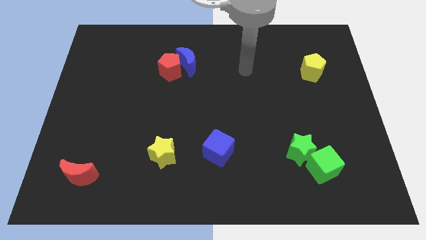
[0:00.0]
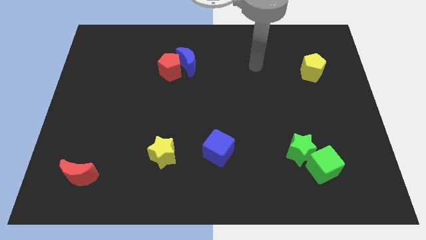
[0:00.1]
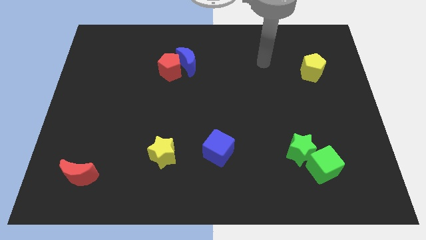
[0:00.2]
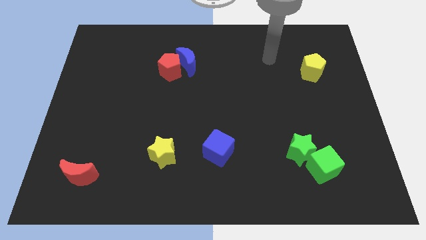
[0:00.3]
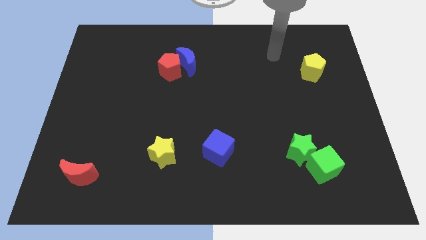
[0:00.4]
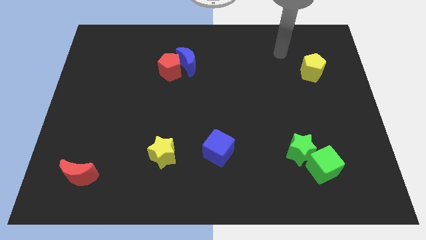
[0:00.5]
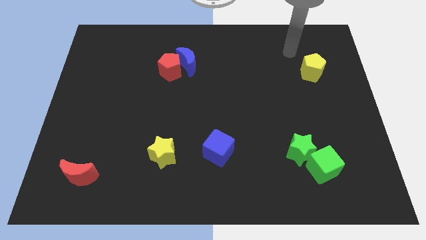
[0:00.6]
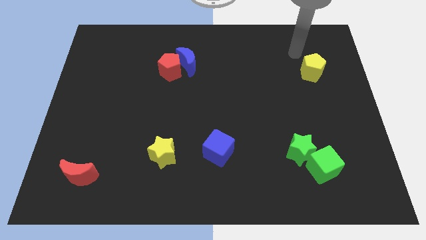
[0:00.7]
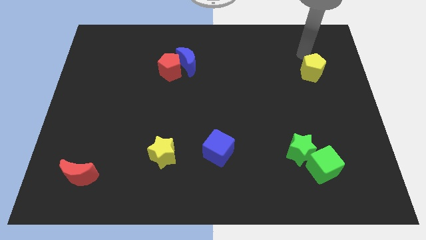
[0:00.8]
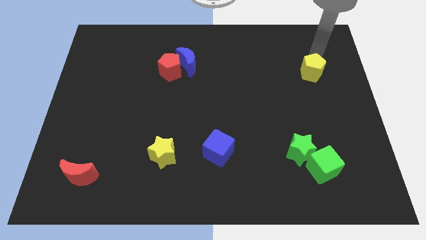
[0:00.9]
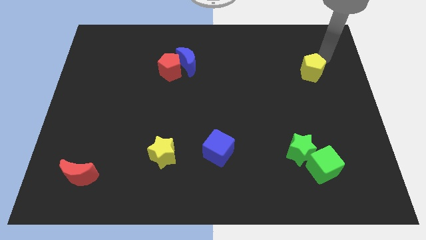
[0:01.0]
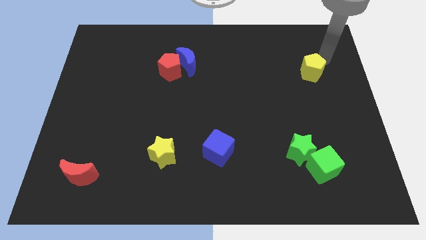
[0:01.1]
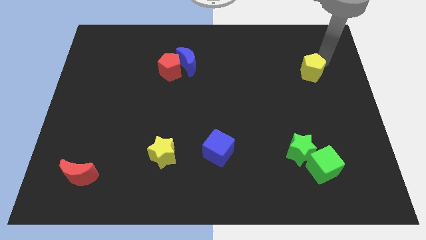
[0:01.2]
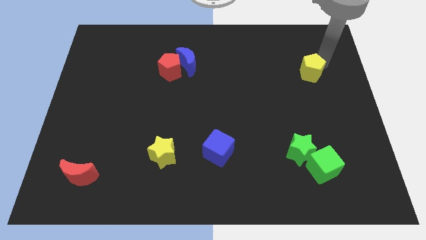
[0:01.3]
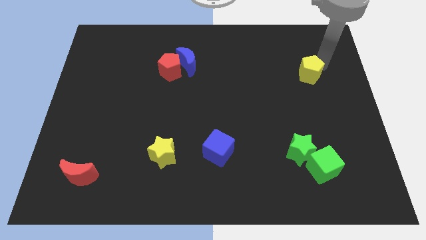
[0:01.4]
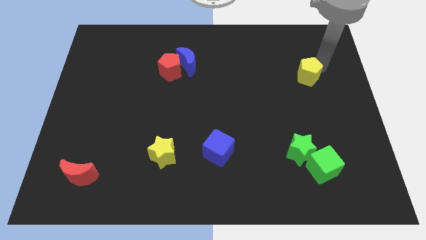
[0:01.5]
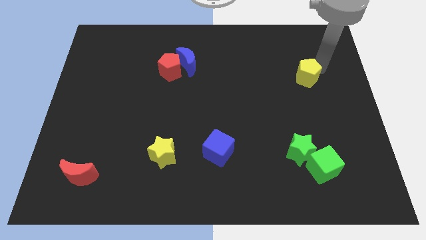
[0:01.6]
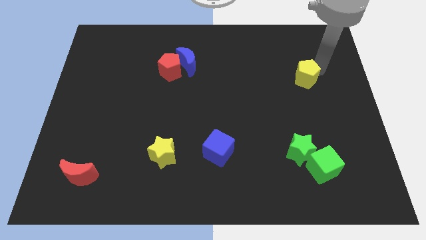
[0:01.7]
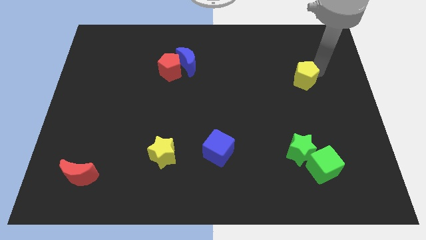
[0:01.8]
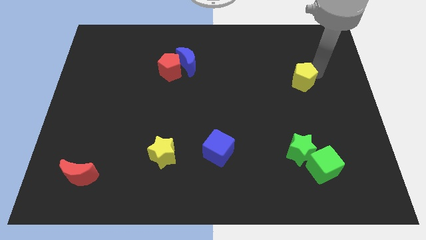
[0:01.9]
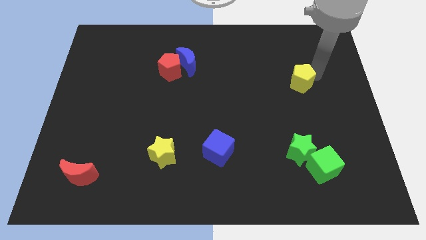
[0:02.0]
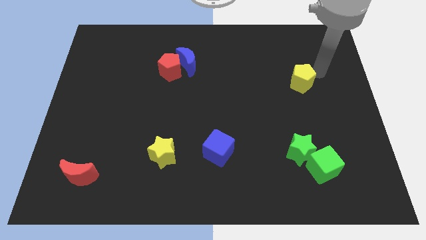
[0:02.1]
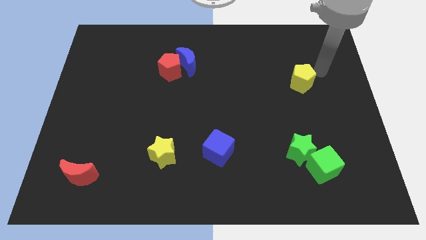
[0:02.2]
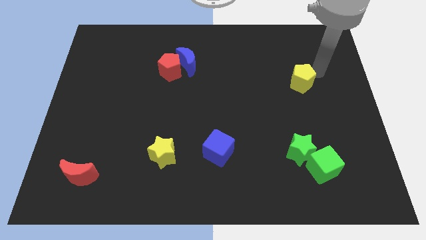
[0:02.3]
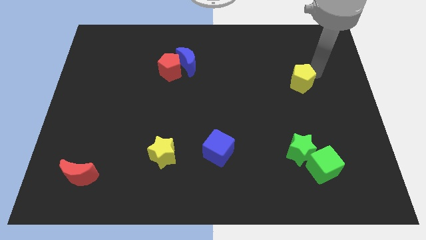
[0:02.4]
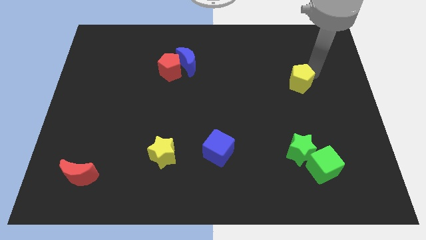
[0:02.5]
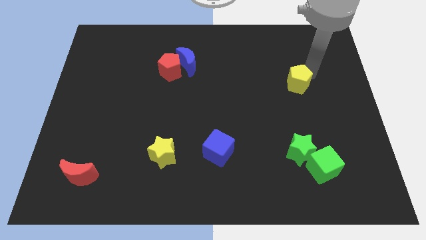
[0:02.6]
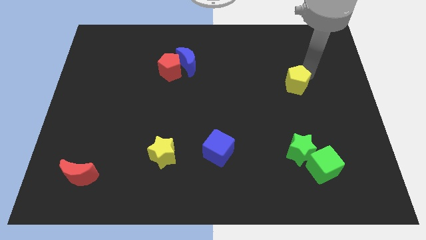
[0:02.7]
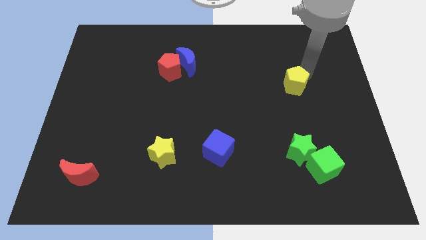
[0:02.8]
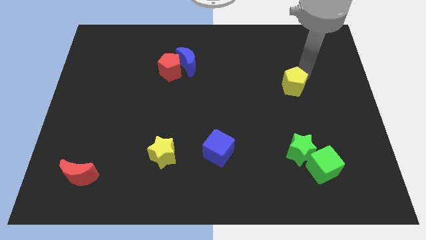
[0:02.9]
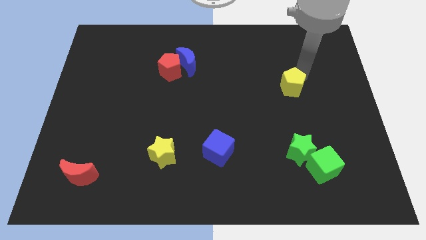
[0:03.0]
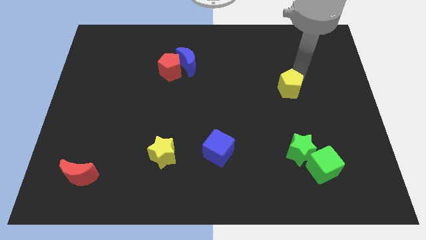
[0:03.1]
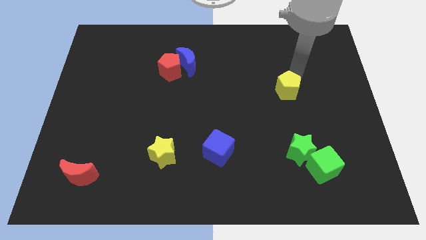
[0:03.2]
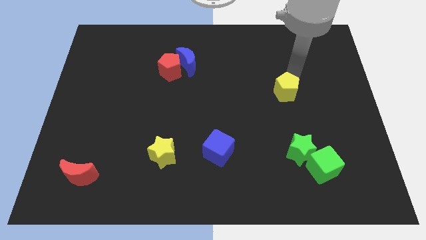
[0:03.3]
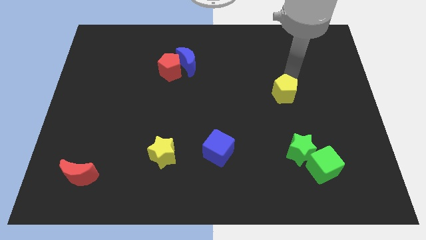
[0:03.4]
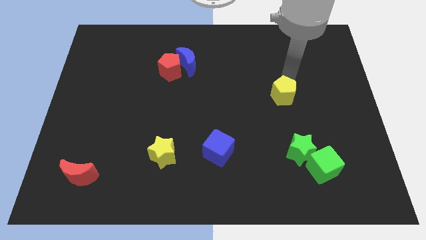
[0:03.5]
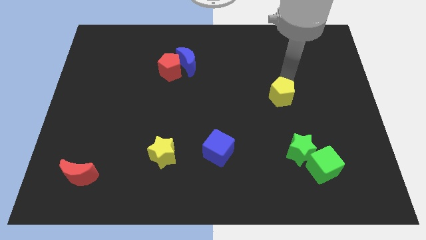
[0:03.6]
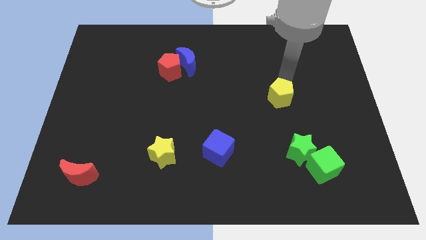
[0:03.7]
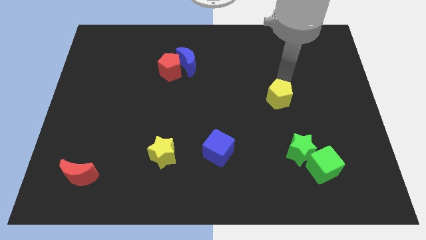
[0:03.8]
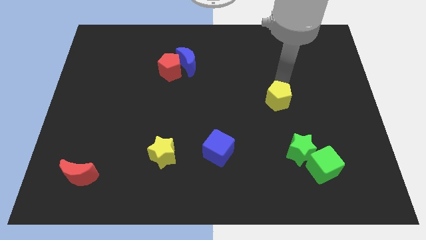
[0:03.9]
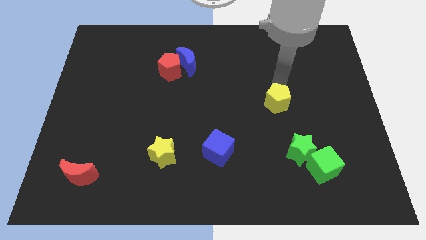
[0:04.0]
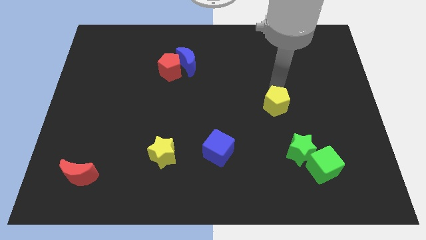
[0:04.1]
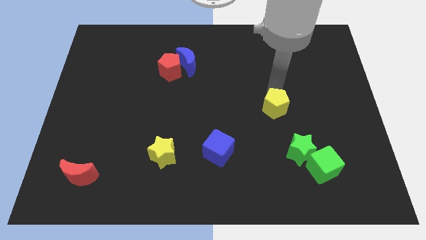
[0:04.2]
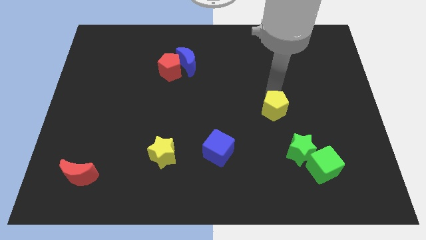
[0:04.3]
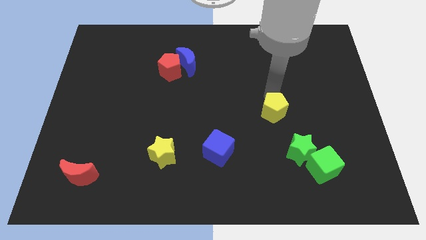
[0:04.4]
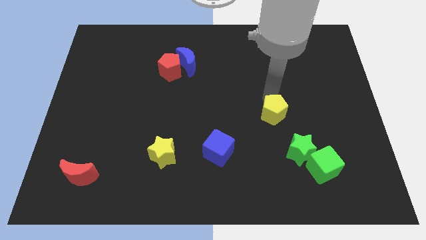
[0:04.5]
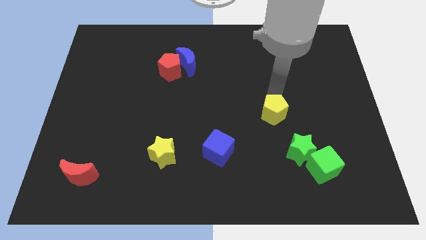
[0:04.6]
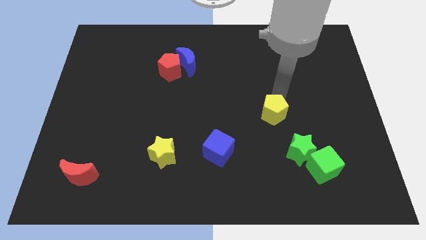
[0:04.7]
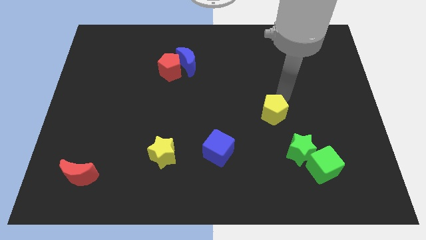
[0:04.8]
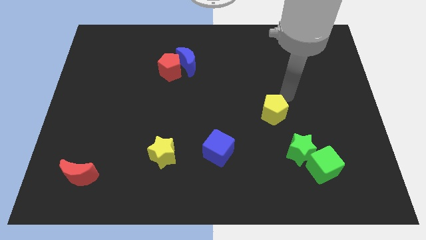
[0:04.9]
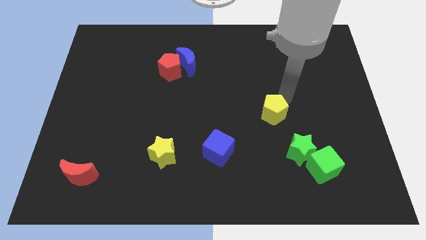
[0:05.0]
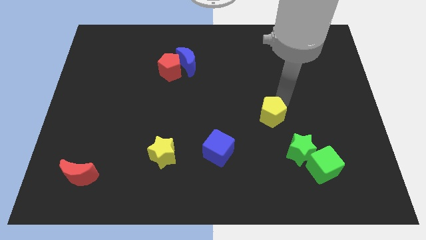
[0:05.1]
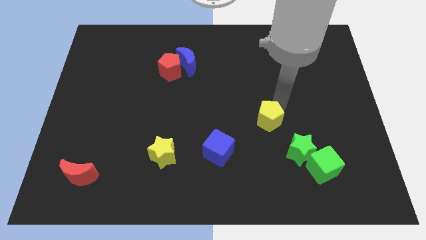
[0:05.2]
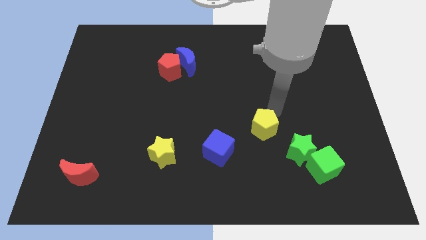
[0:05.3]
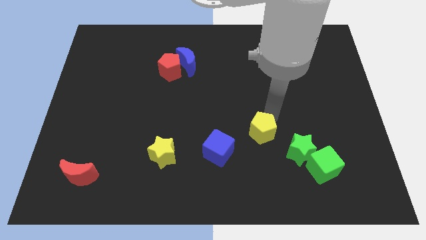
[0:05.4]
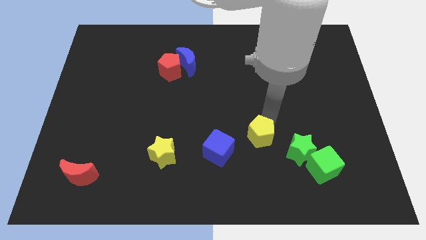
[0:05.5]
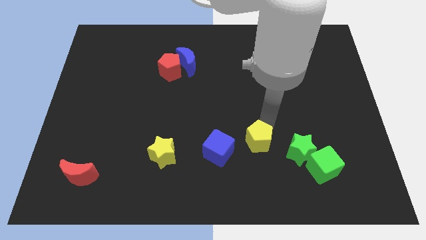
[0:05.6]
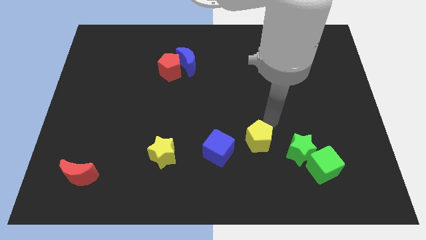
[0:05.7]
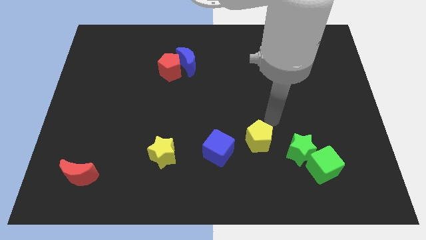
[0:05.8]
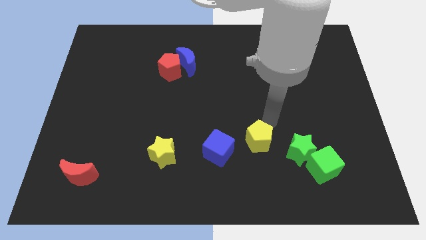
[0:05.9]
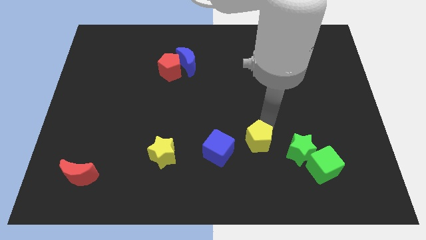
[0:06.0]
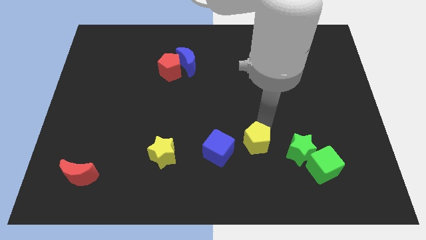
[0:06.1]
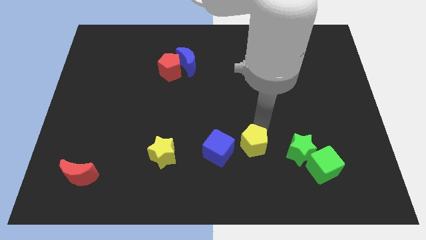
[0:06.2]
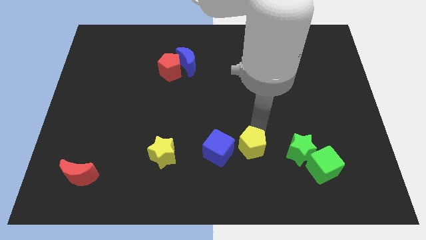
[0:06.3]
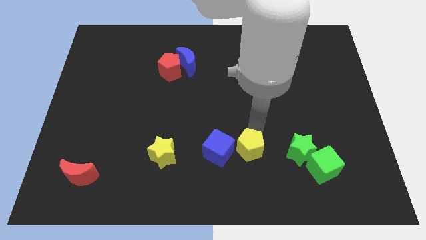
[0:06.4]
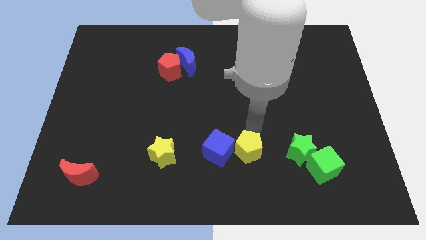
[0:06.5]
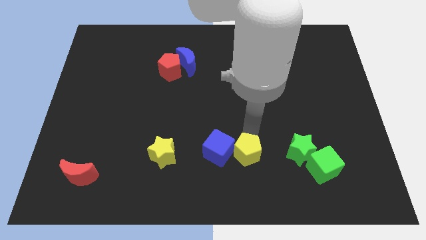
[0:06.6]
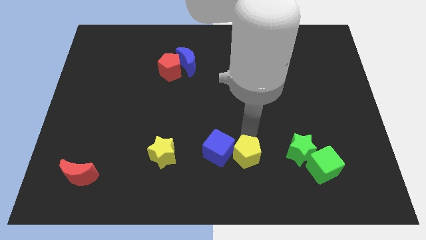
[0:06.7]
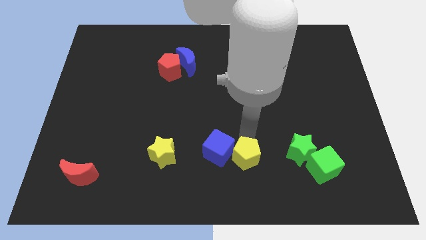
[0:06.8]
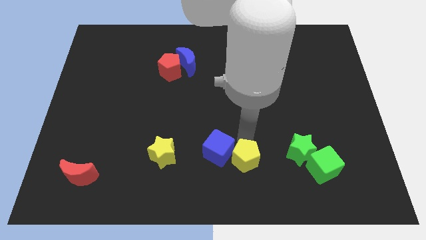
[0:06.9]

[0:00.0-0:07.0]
slide the yellow pentagon to the bottom side
